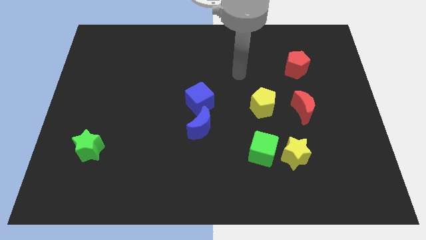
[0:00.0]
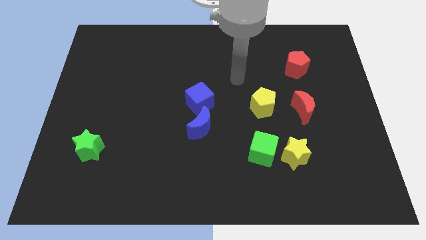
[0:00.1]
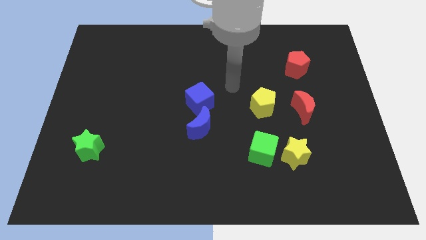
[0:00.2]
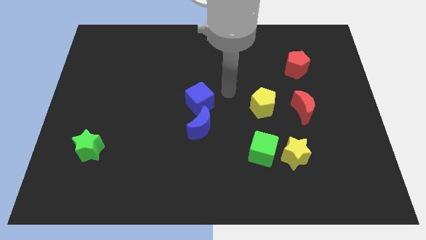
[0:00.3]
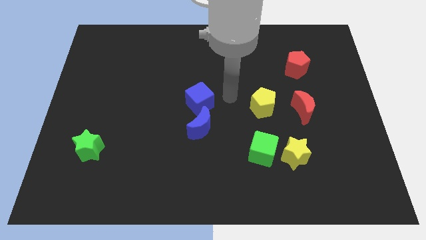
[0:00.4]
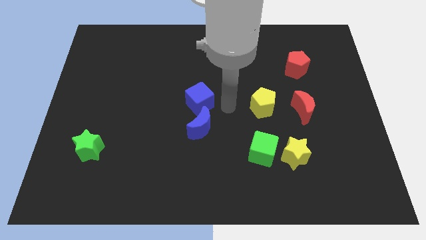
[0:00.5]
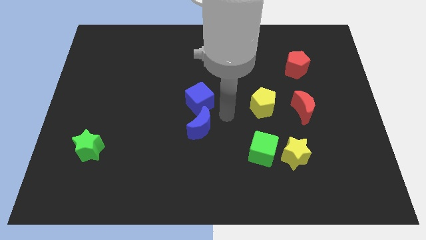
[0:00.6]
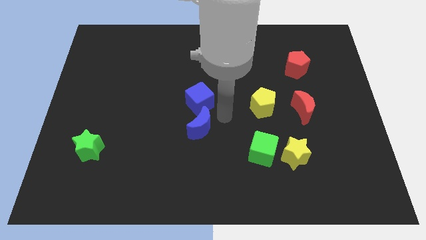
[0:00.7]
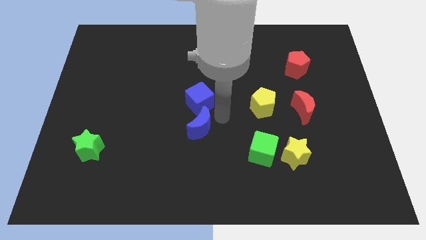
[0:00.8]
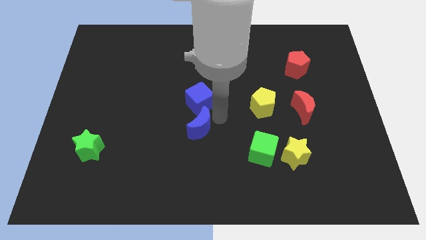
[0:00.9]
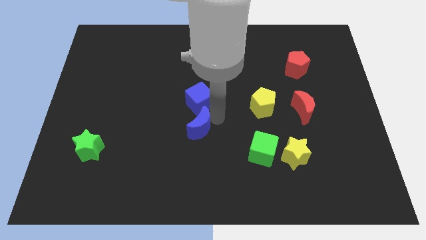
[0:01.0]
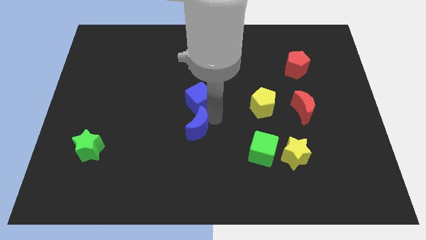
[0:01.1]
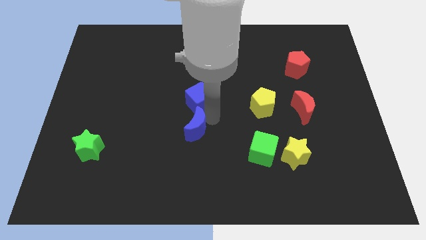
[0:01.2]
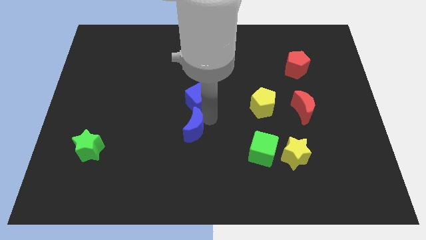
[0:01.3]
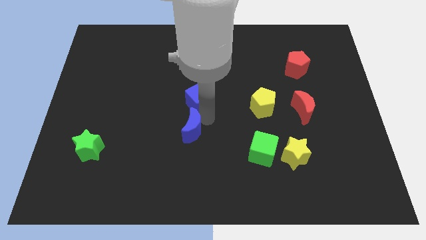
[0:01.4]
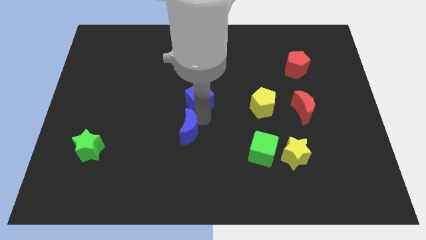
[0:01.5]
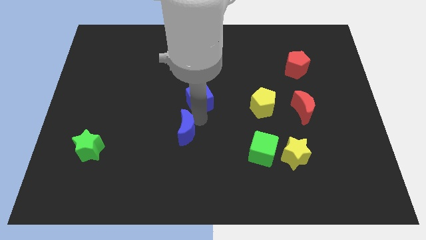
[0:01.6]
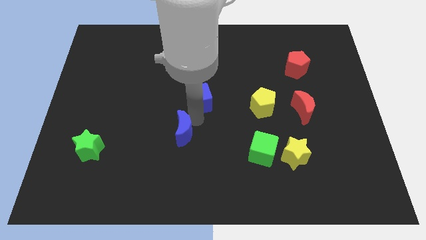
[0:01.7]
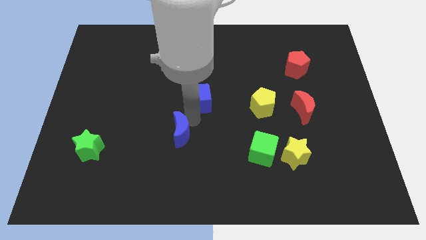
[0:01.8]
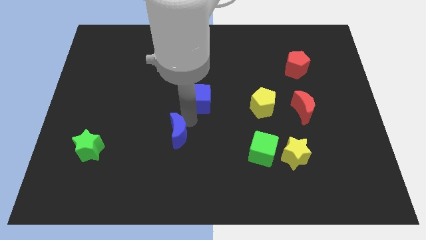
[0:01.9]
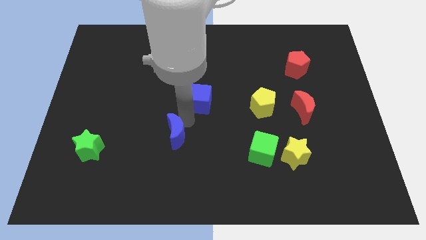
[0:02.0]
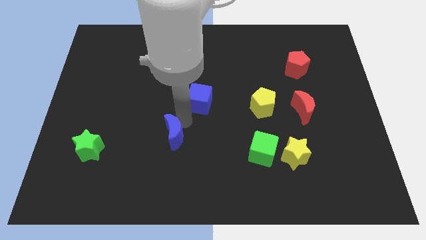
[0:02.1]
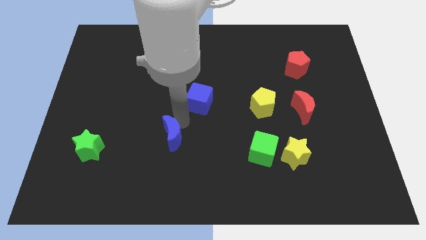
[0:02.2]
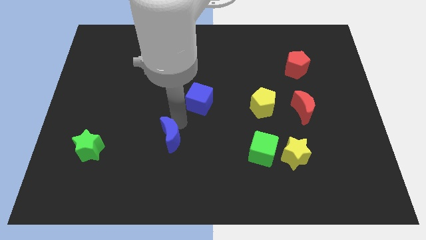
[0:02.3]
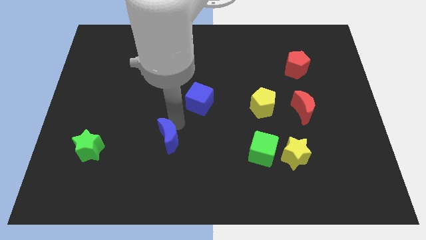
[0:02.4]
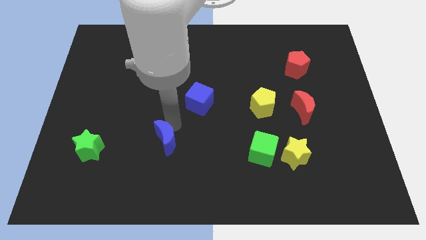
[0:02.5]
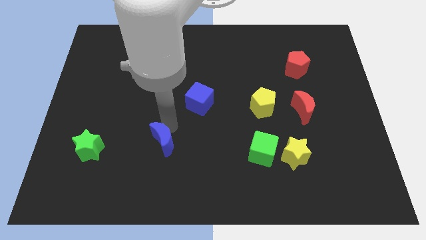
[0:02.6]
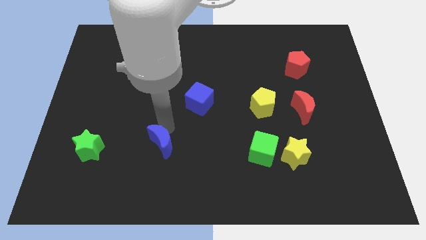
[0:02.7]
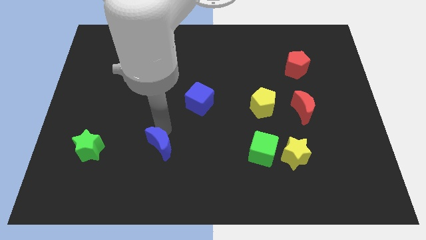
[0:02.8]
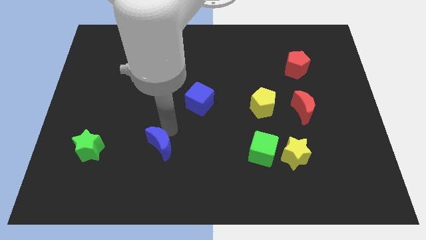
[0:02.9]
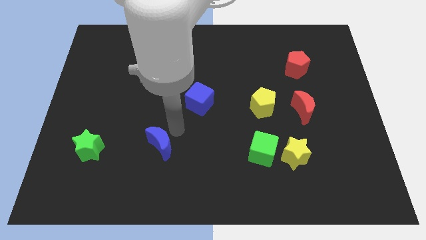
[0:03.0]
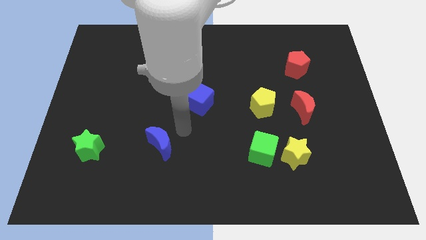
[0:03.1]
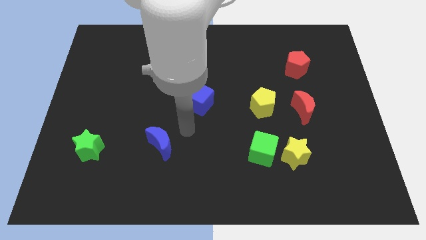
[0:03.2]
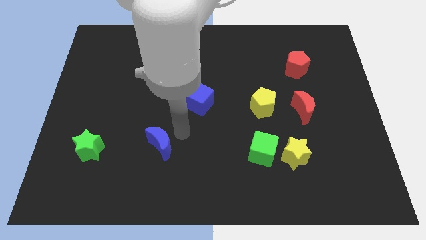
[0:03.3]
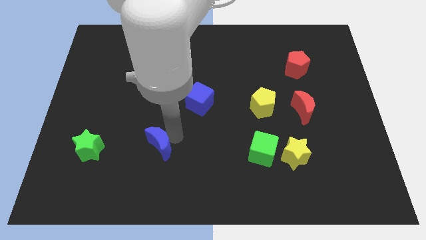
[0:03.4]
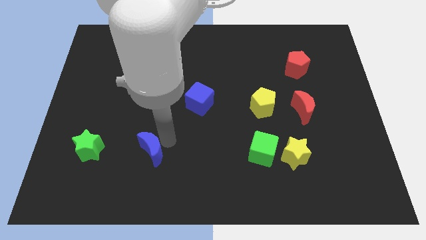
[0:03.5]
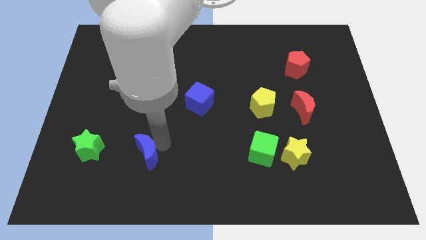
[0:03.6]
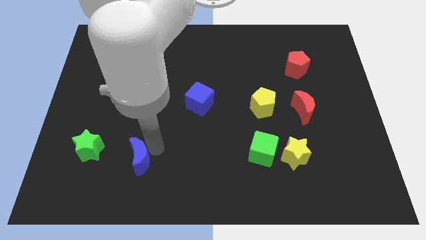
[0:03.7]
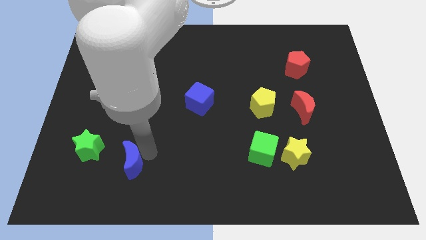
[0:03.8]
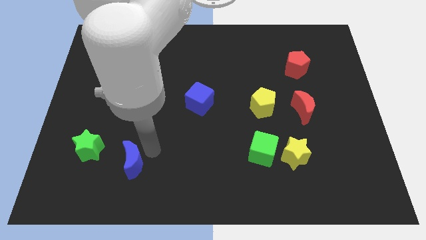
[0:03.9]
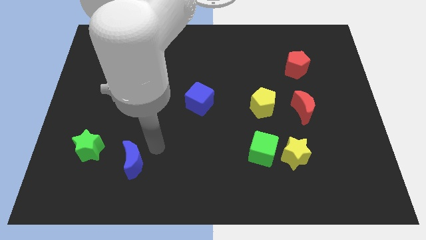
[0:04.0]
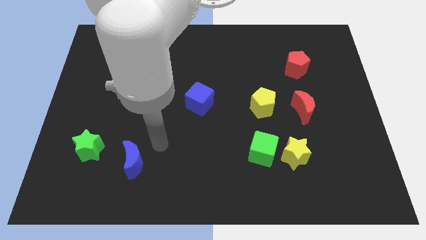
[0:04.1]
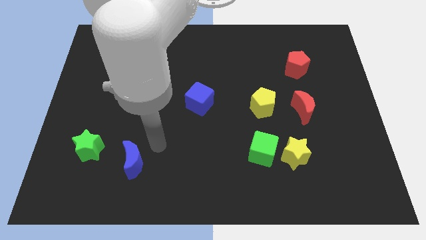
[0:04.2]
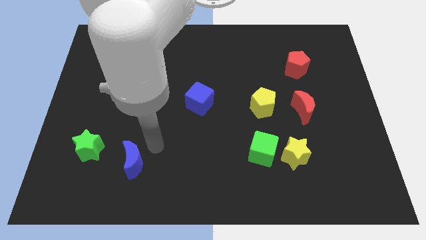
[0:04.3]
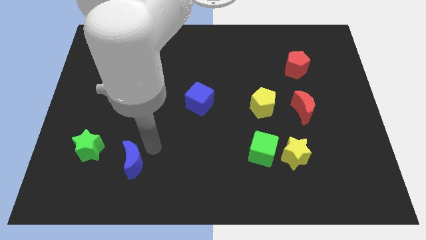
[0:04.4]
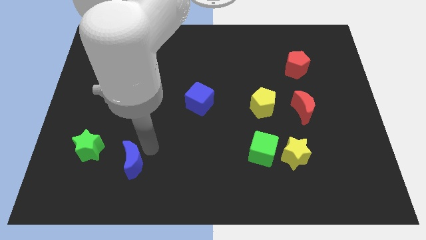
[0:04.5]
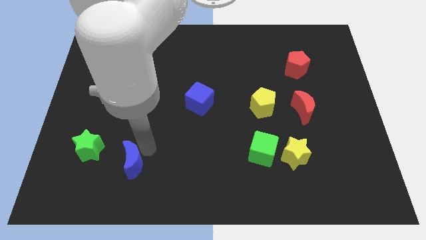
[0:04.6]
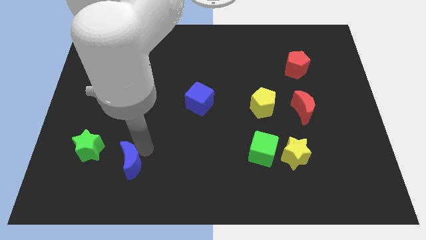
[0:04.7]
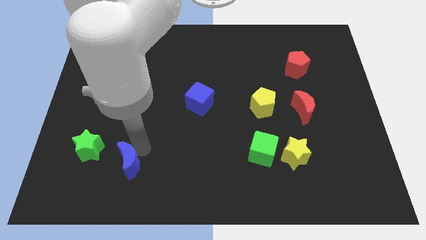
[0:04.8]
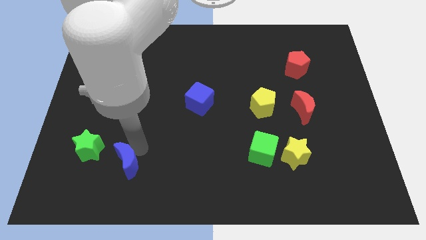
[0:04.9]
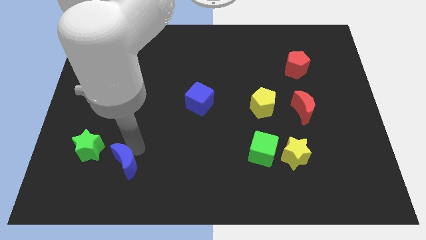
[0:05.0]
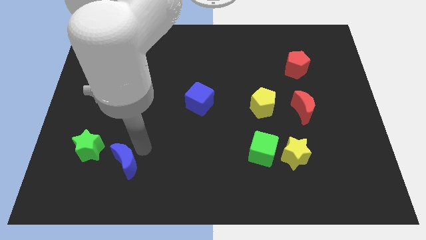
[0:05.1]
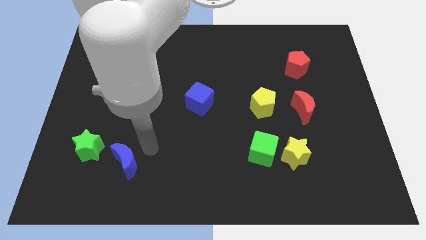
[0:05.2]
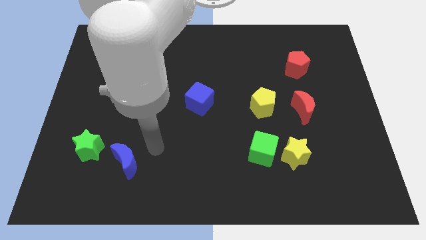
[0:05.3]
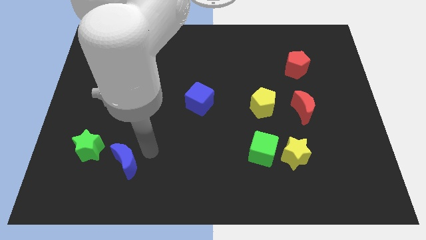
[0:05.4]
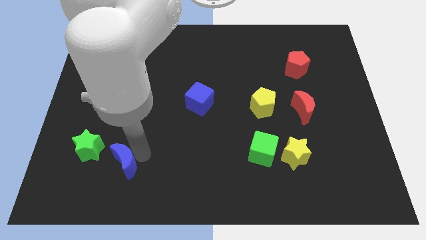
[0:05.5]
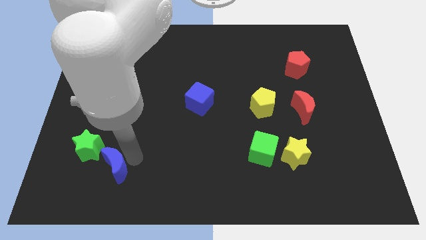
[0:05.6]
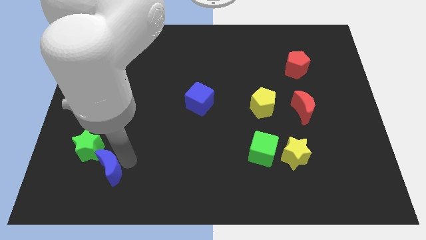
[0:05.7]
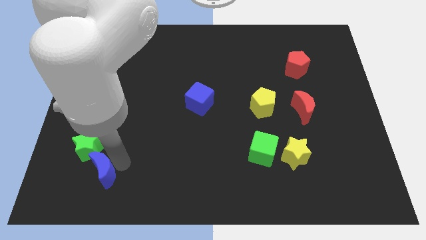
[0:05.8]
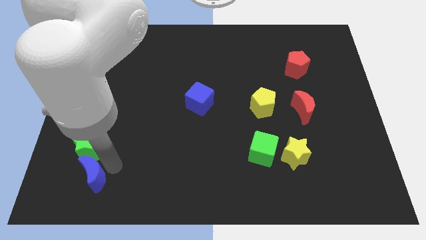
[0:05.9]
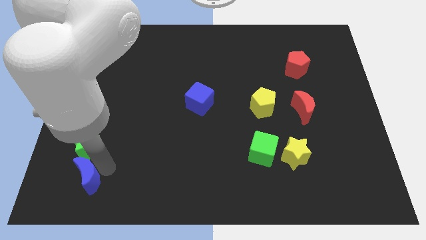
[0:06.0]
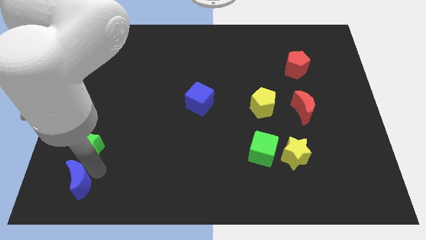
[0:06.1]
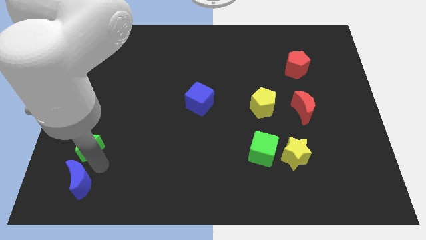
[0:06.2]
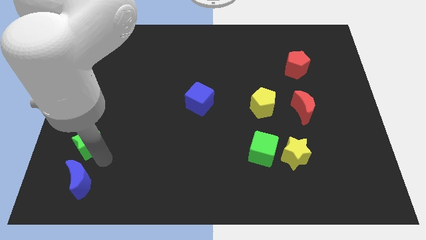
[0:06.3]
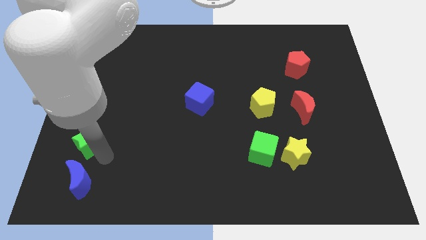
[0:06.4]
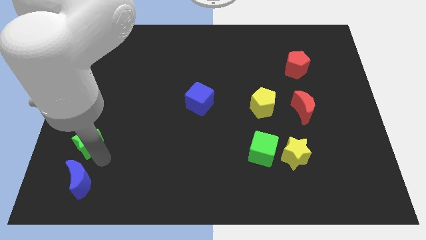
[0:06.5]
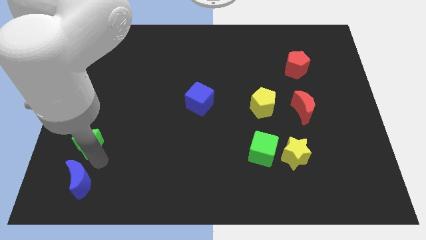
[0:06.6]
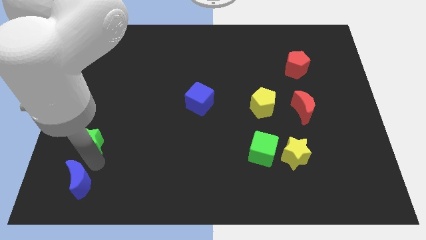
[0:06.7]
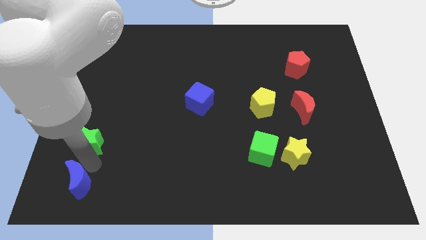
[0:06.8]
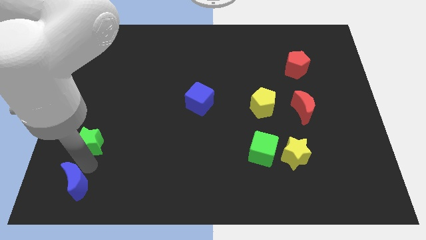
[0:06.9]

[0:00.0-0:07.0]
put the blue moon to the bottom left corner
